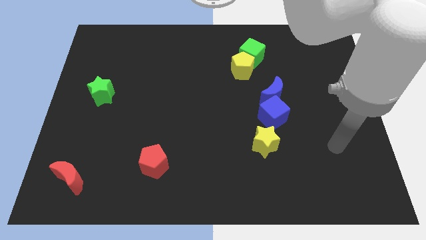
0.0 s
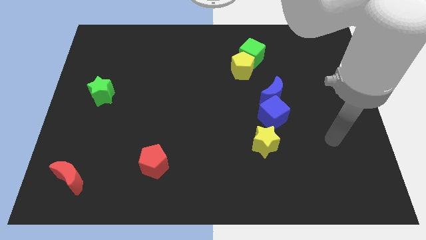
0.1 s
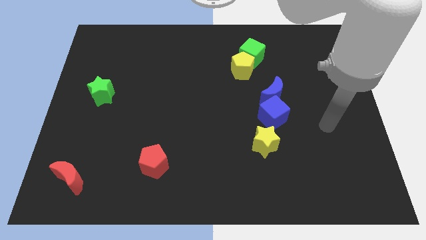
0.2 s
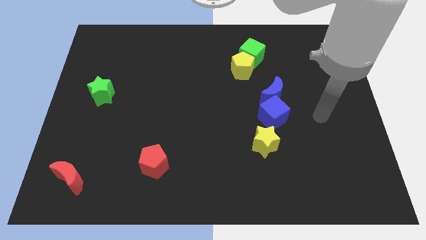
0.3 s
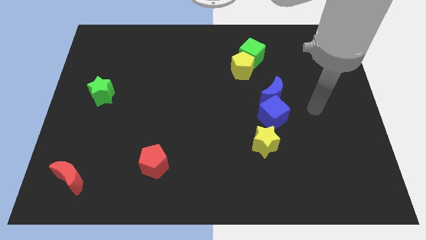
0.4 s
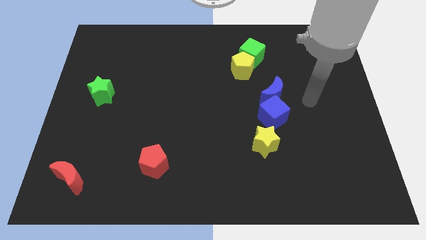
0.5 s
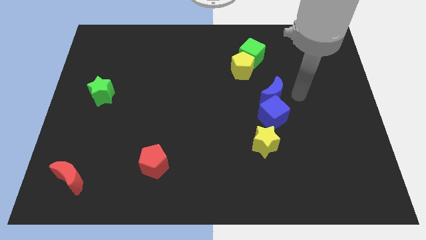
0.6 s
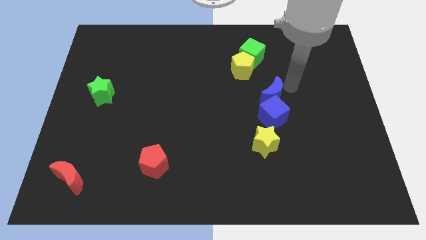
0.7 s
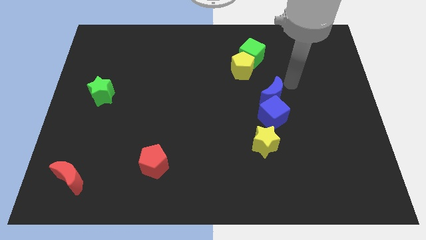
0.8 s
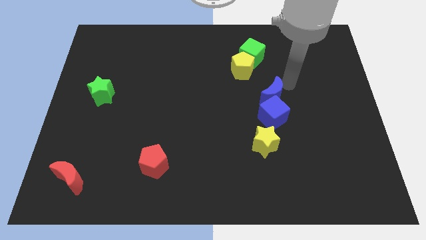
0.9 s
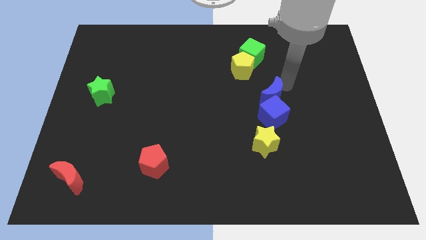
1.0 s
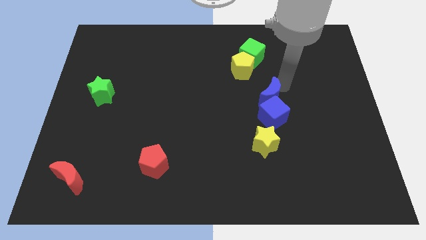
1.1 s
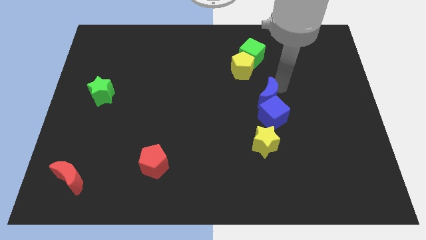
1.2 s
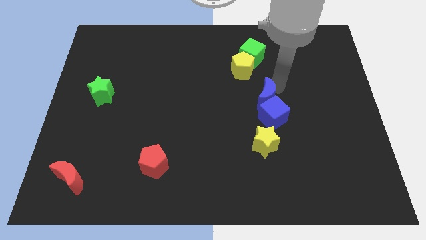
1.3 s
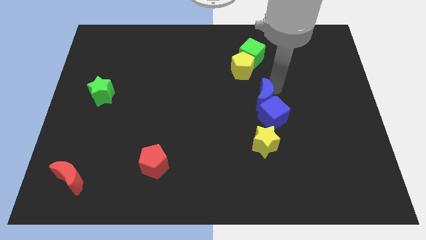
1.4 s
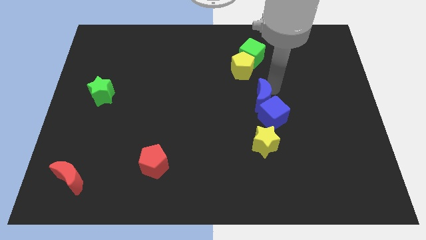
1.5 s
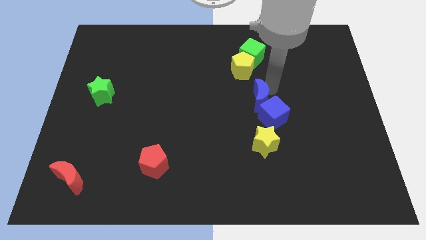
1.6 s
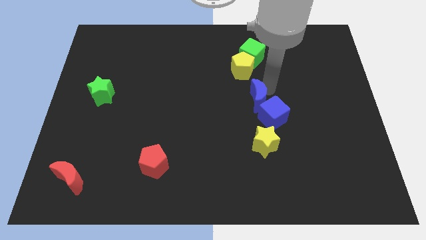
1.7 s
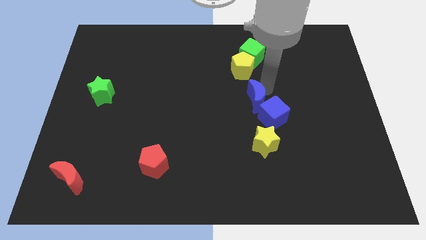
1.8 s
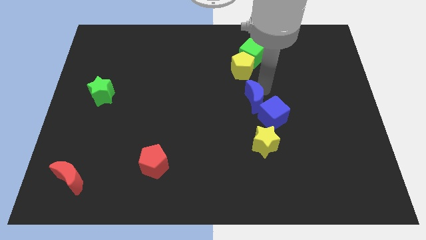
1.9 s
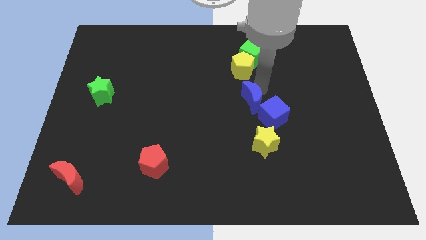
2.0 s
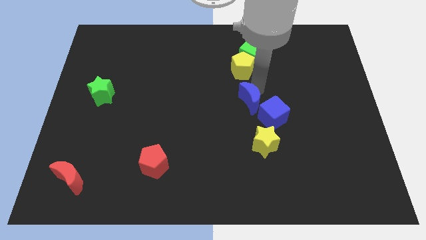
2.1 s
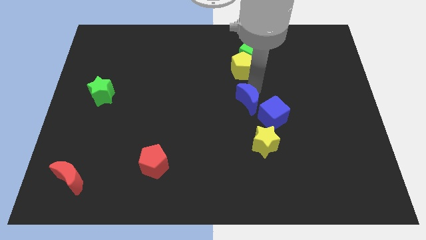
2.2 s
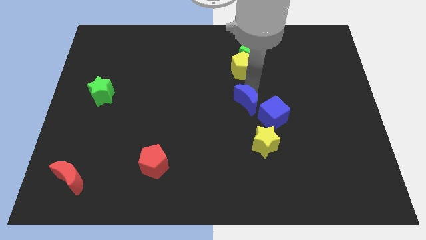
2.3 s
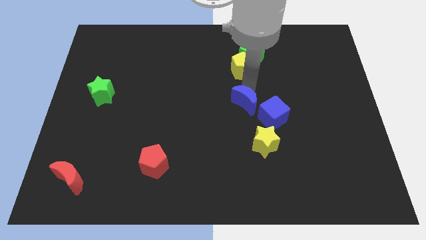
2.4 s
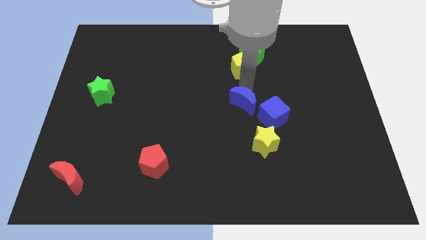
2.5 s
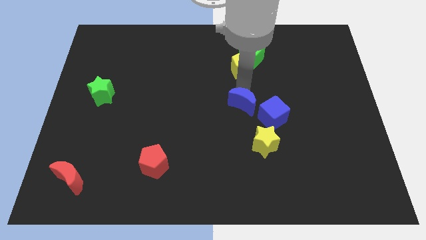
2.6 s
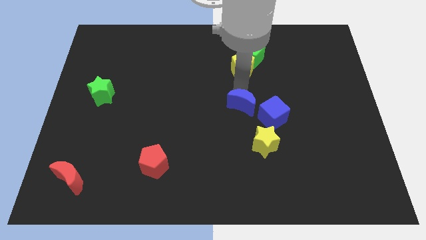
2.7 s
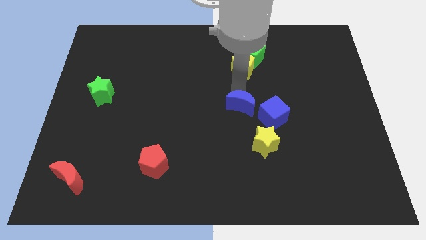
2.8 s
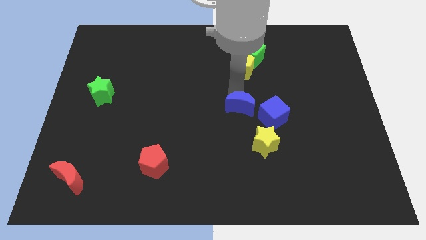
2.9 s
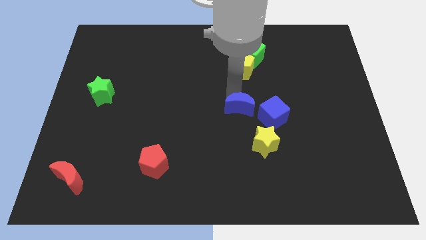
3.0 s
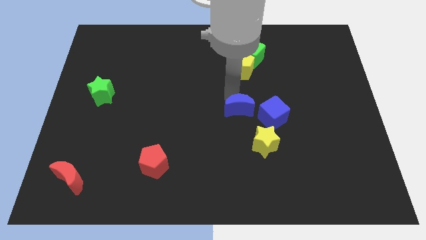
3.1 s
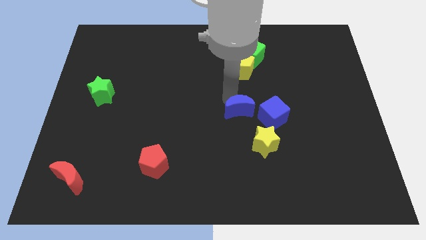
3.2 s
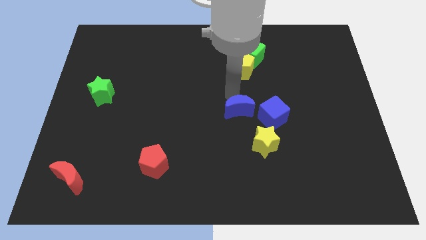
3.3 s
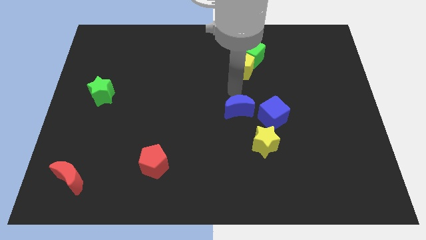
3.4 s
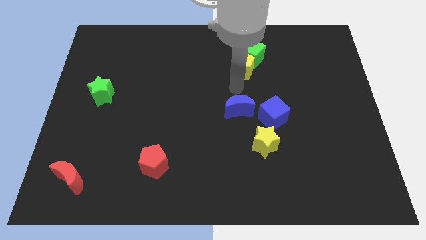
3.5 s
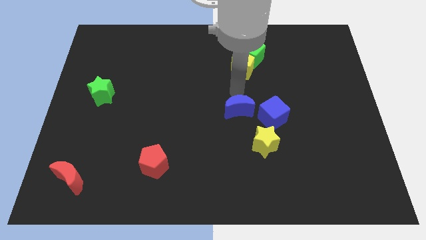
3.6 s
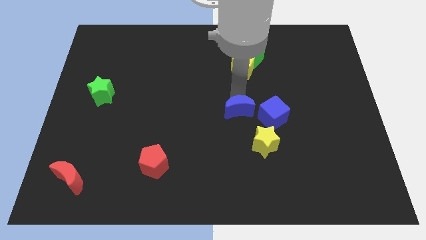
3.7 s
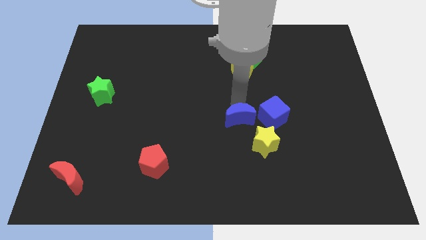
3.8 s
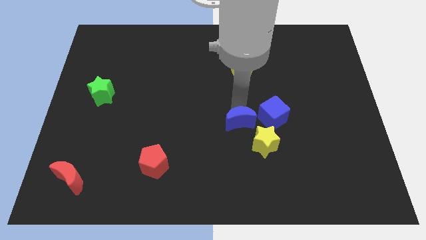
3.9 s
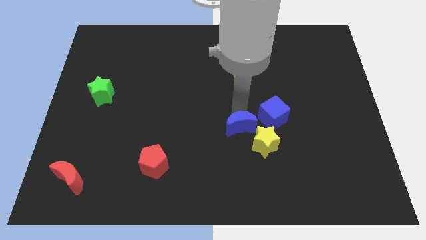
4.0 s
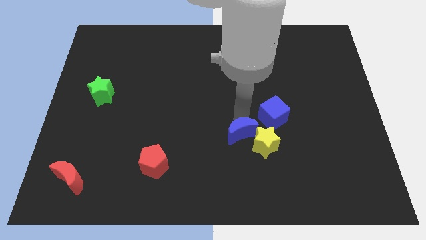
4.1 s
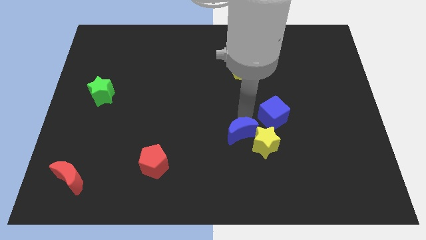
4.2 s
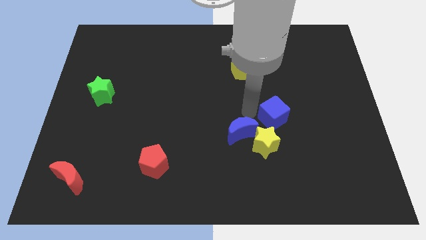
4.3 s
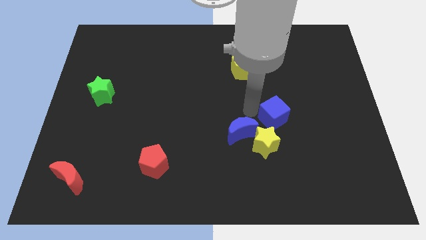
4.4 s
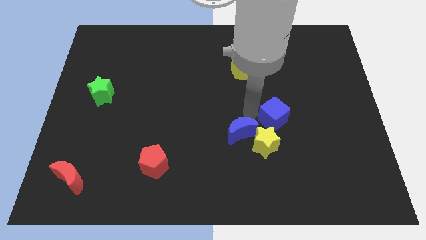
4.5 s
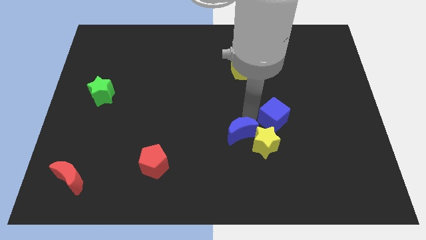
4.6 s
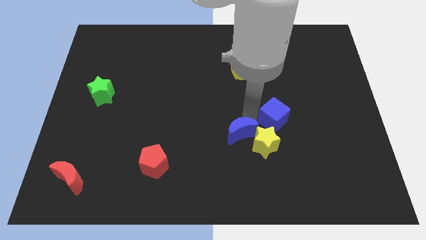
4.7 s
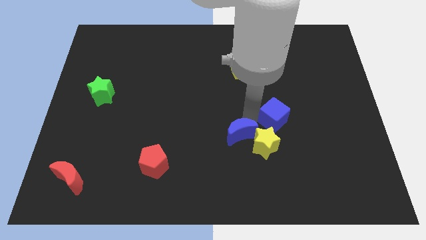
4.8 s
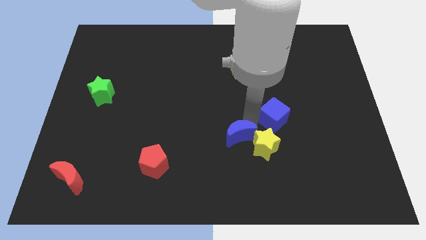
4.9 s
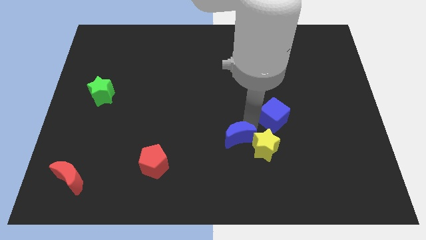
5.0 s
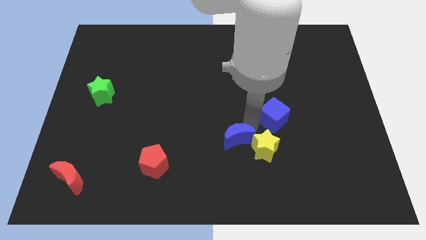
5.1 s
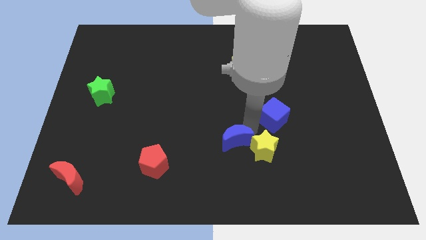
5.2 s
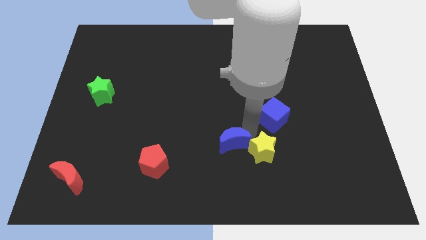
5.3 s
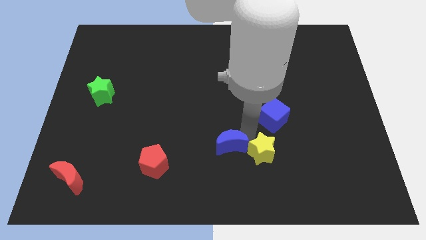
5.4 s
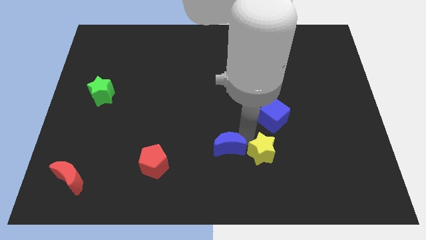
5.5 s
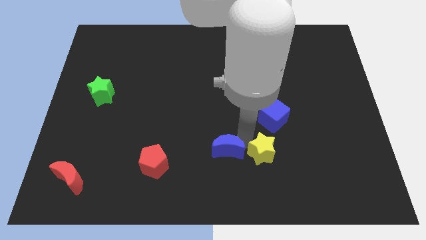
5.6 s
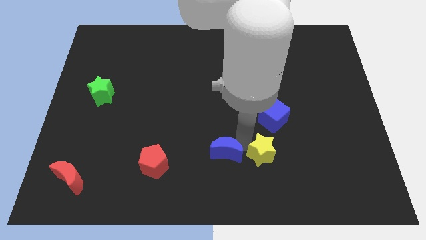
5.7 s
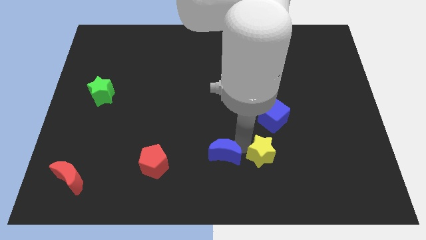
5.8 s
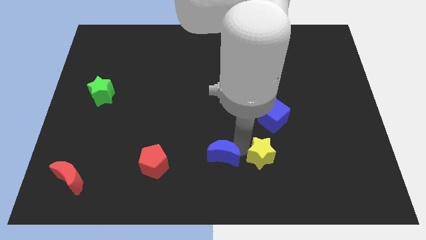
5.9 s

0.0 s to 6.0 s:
push the blue moon downwards and left

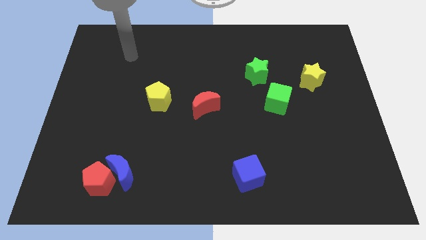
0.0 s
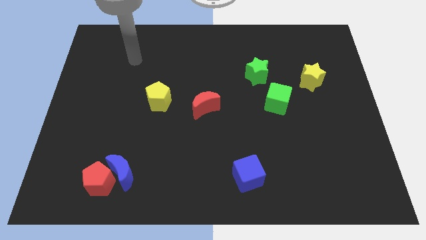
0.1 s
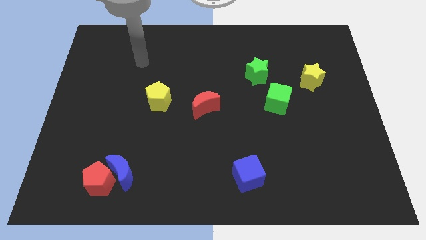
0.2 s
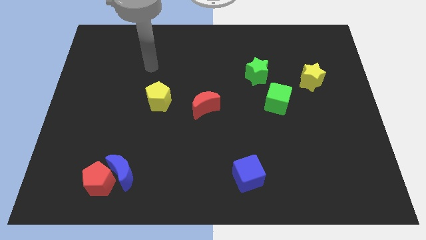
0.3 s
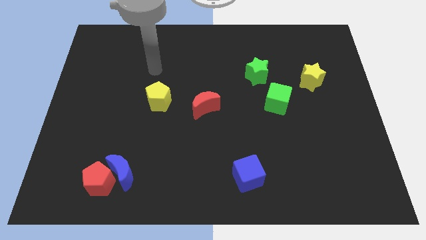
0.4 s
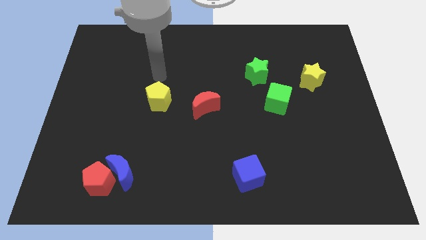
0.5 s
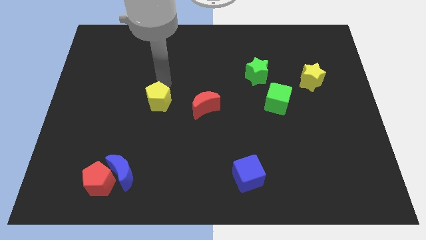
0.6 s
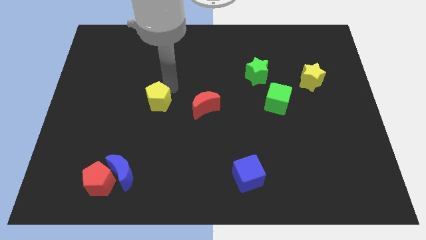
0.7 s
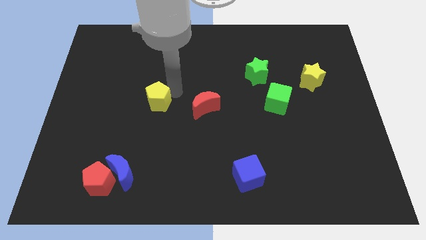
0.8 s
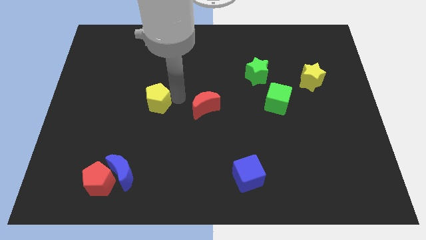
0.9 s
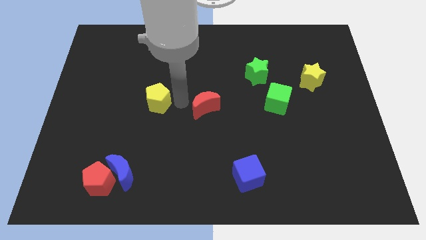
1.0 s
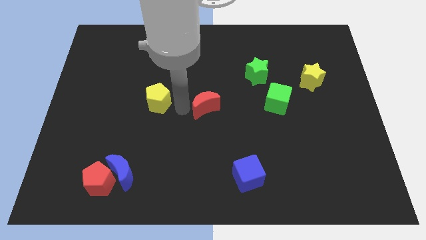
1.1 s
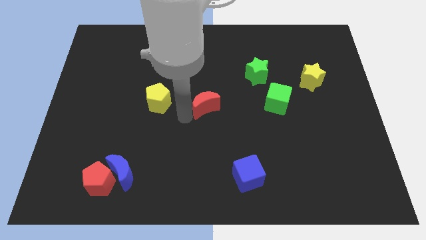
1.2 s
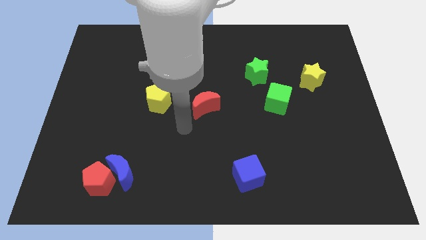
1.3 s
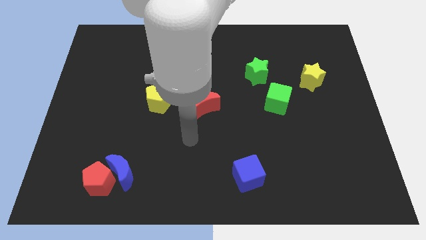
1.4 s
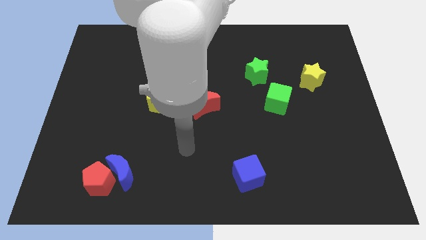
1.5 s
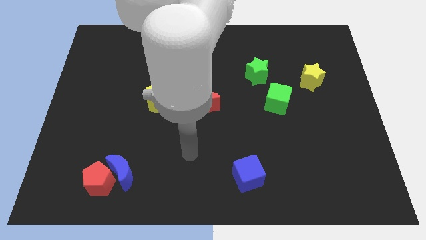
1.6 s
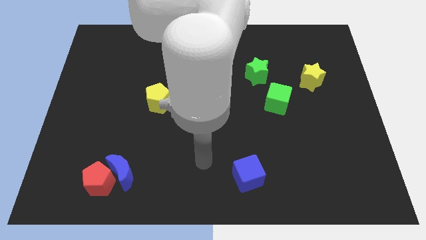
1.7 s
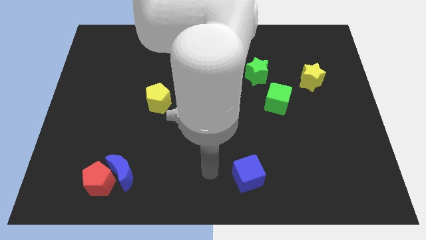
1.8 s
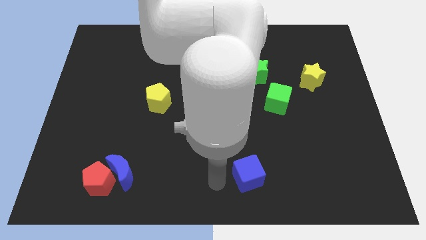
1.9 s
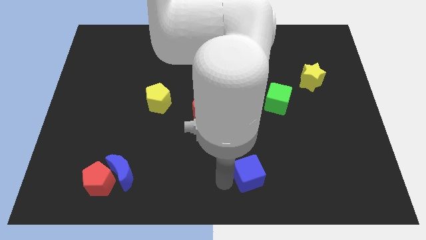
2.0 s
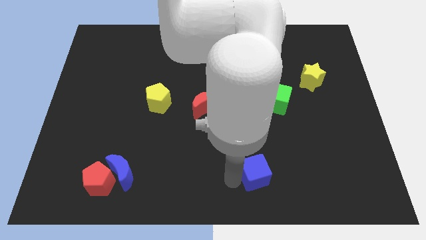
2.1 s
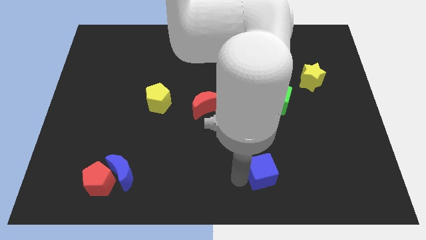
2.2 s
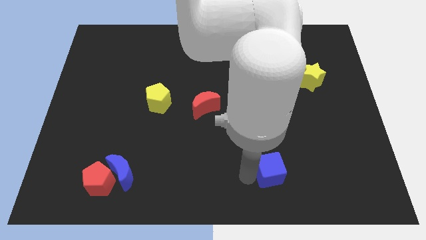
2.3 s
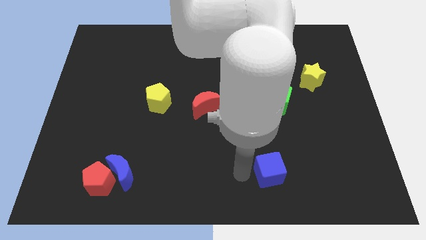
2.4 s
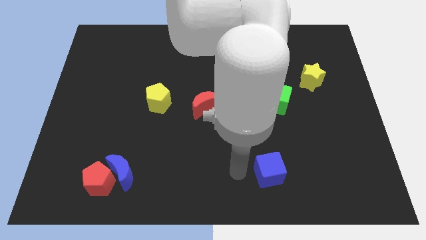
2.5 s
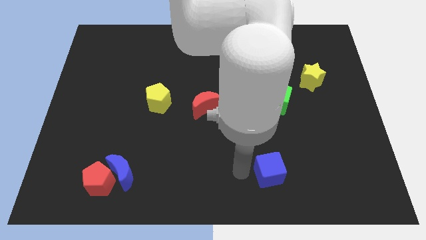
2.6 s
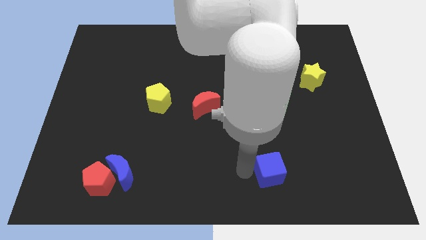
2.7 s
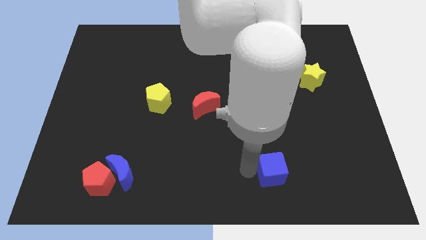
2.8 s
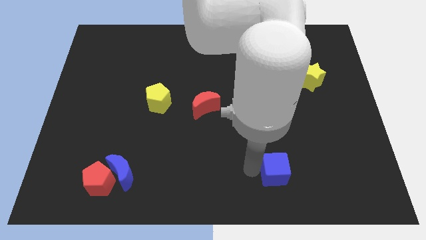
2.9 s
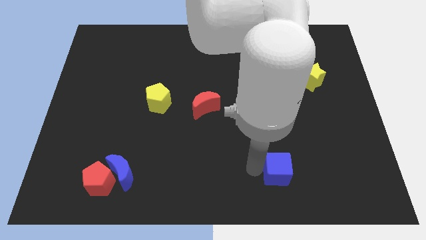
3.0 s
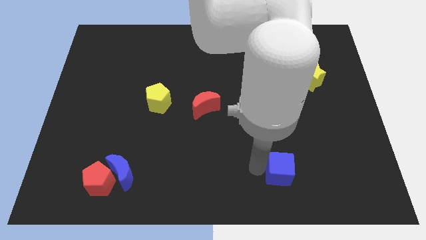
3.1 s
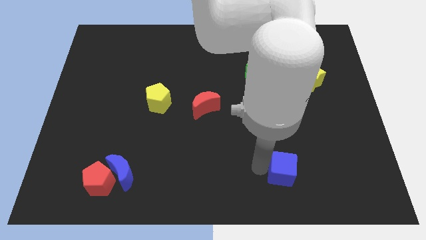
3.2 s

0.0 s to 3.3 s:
move the blue cube a bit to the right
